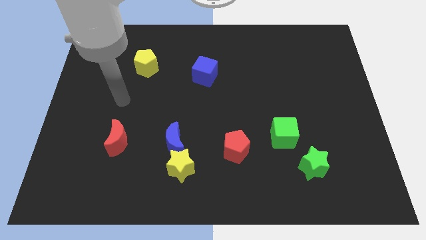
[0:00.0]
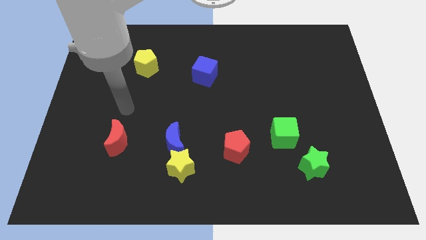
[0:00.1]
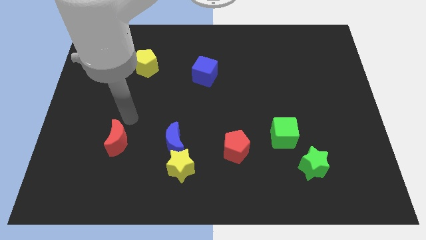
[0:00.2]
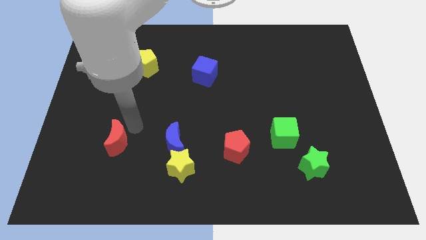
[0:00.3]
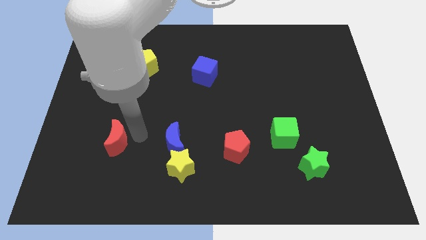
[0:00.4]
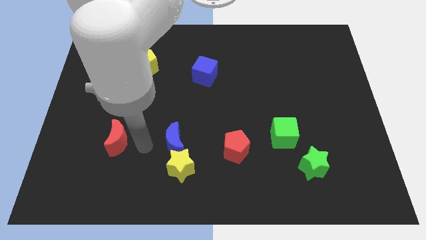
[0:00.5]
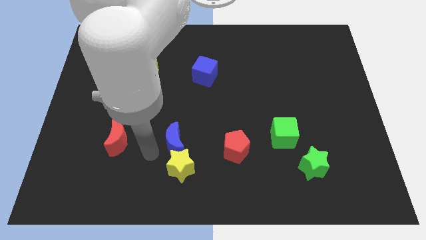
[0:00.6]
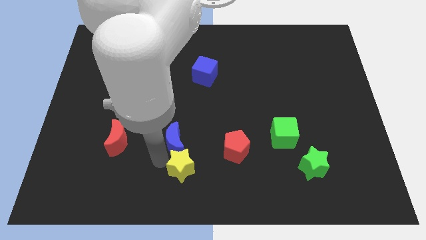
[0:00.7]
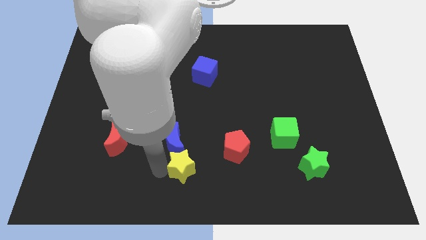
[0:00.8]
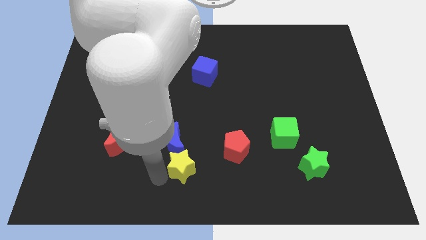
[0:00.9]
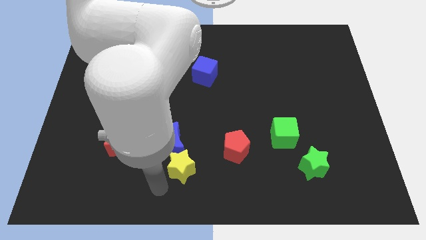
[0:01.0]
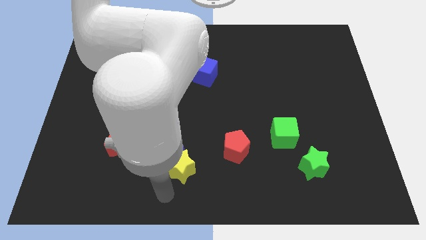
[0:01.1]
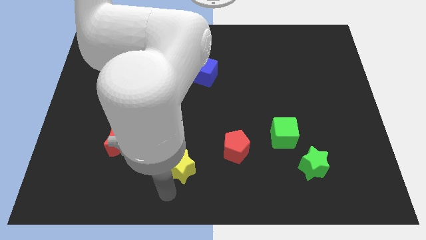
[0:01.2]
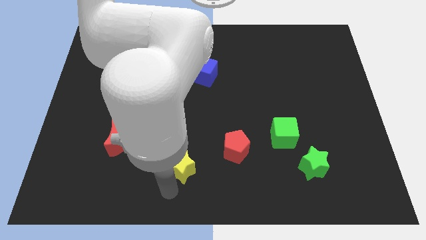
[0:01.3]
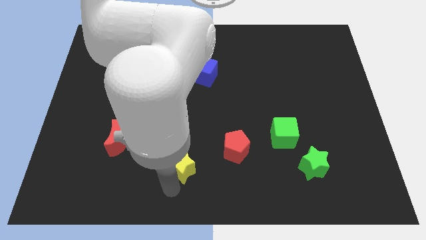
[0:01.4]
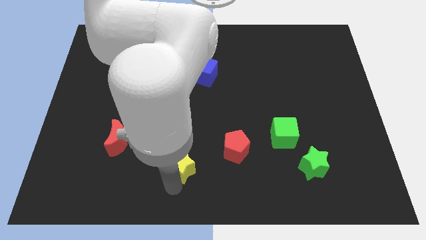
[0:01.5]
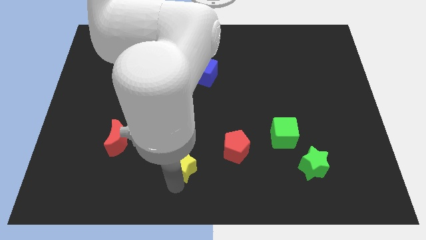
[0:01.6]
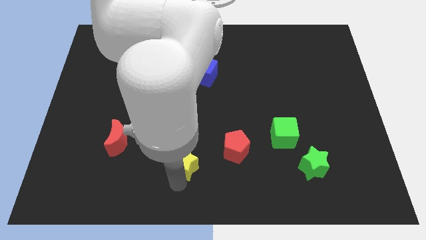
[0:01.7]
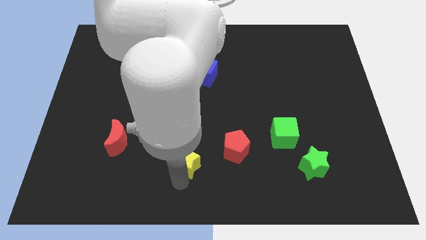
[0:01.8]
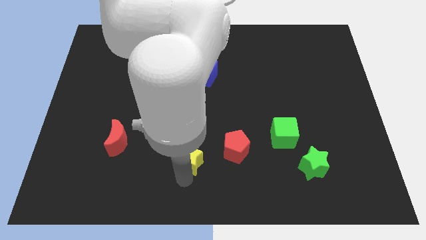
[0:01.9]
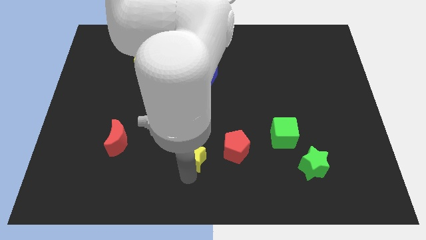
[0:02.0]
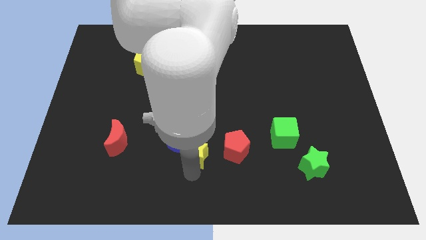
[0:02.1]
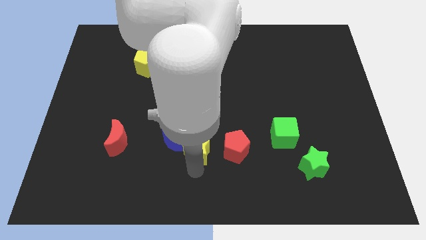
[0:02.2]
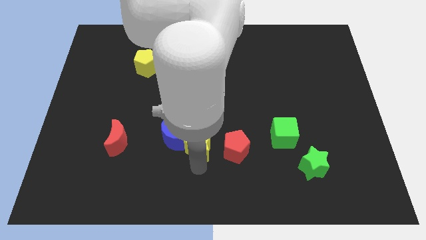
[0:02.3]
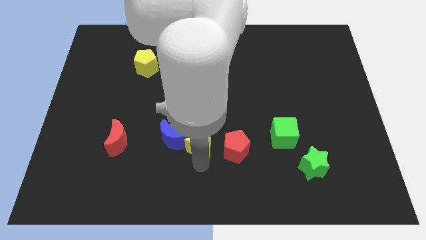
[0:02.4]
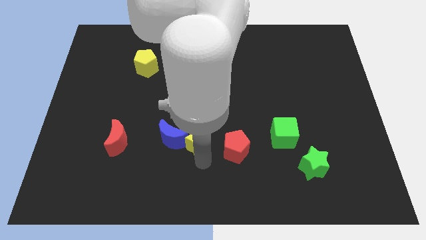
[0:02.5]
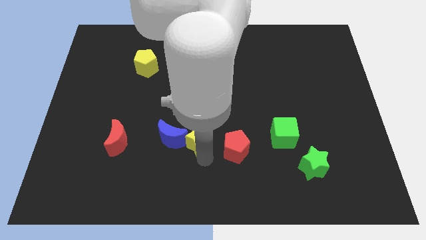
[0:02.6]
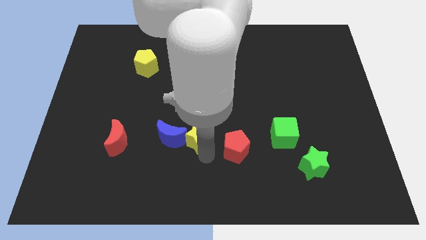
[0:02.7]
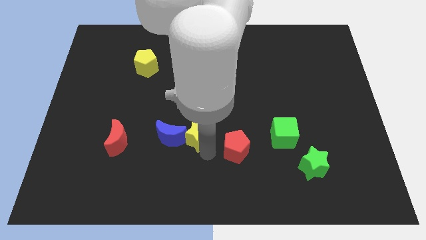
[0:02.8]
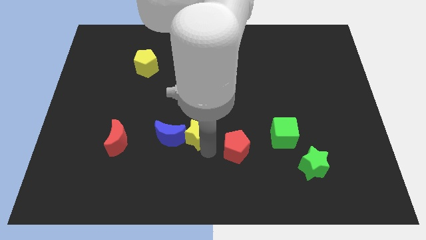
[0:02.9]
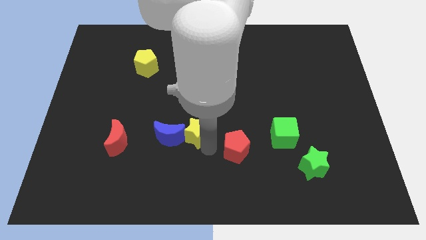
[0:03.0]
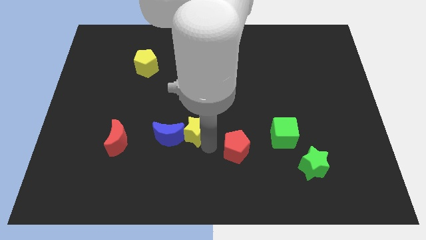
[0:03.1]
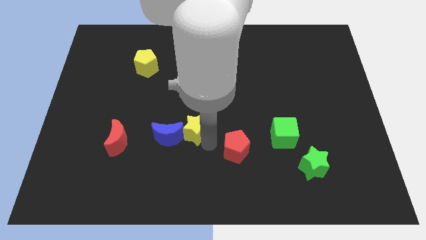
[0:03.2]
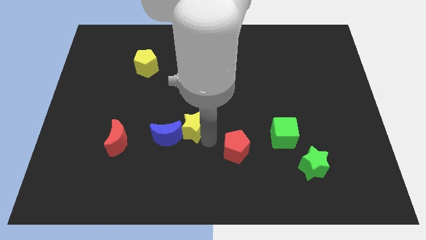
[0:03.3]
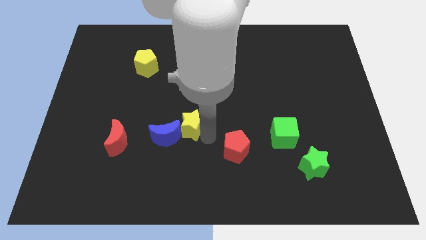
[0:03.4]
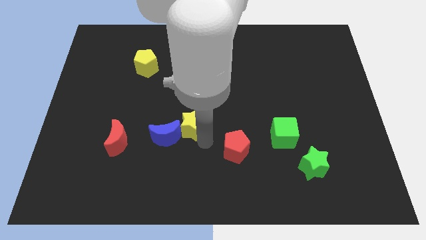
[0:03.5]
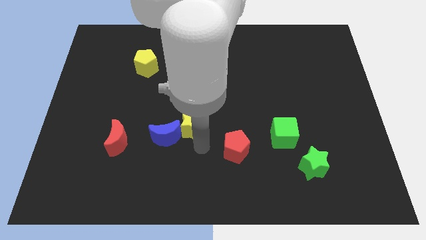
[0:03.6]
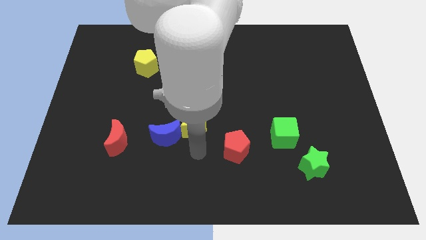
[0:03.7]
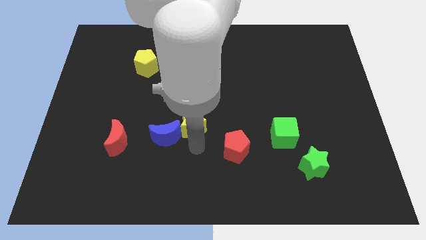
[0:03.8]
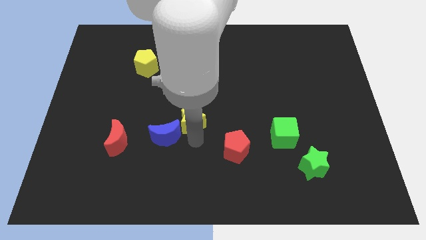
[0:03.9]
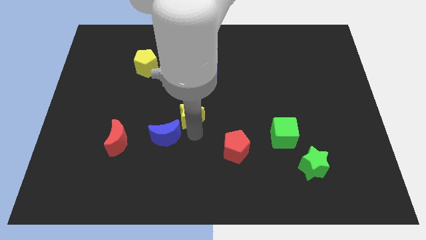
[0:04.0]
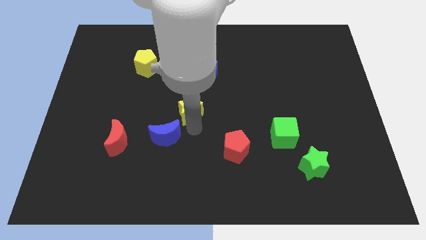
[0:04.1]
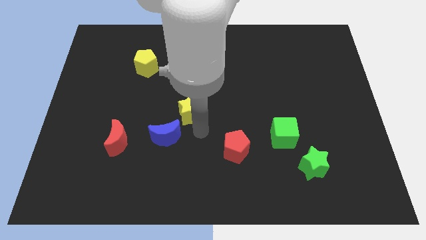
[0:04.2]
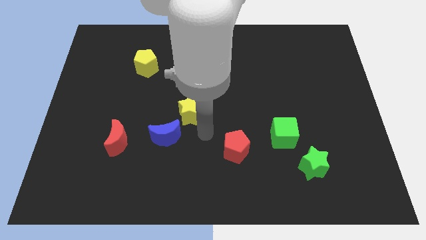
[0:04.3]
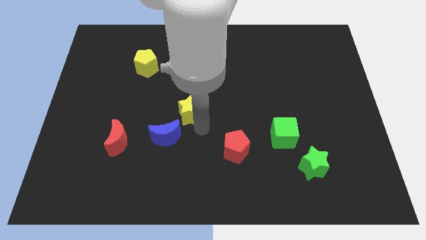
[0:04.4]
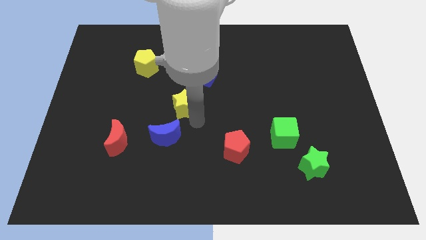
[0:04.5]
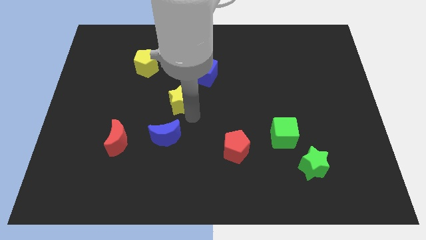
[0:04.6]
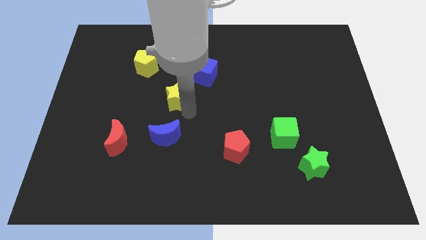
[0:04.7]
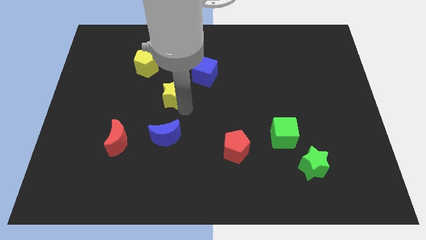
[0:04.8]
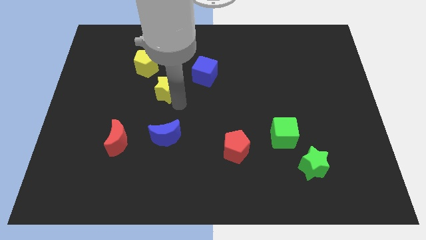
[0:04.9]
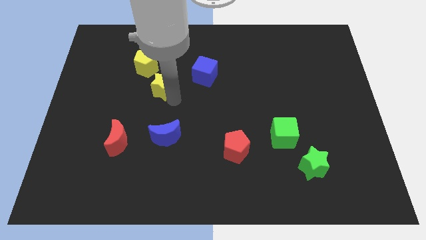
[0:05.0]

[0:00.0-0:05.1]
move the yellow star to the left of the blue cube

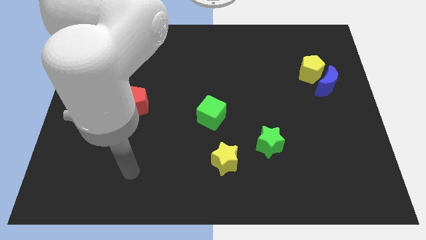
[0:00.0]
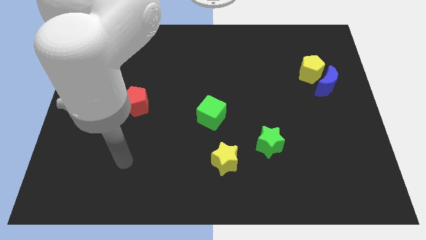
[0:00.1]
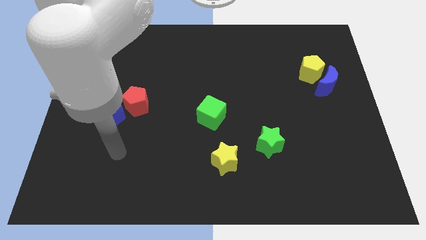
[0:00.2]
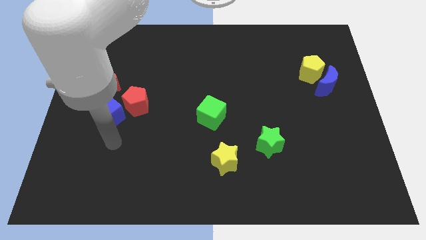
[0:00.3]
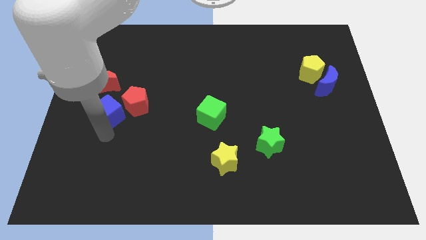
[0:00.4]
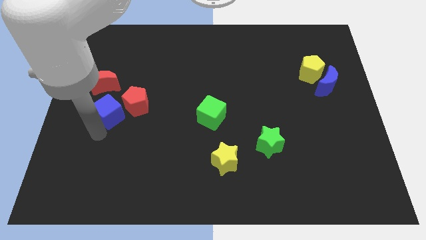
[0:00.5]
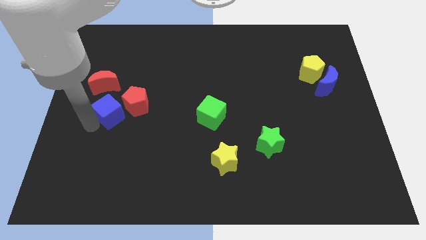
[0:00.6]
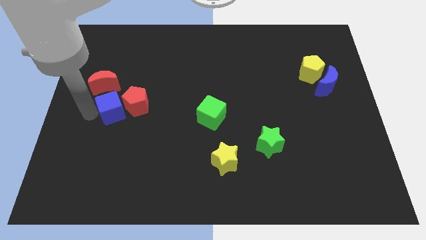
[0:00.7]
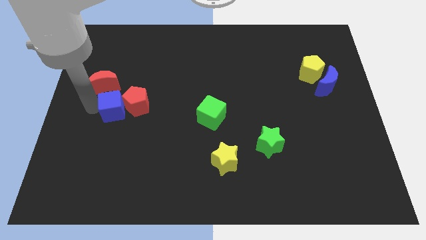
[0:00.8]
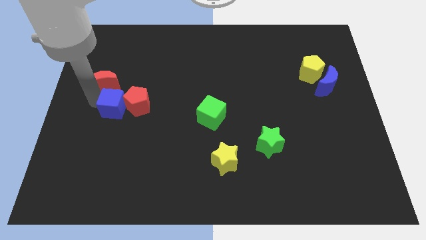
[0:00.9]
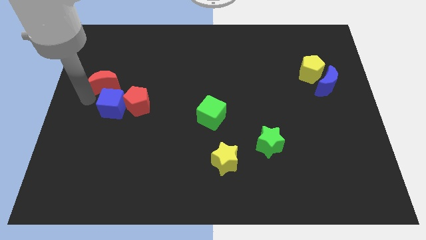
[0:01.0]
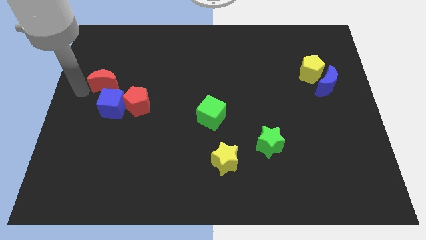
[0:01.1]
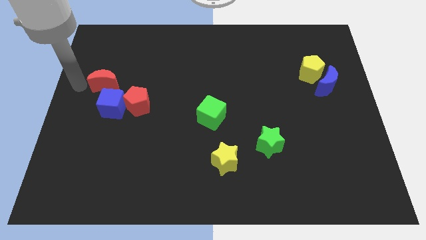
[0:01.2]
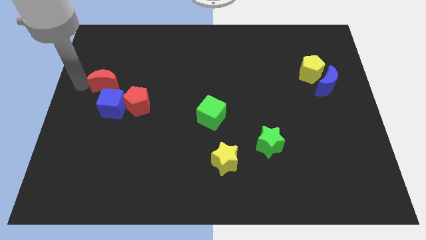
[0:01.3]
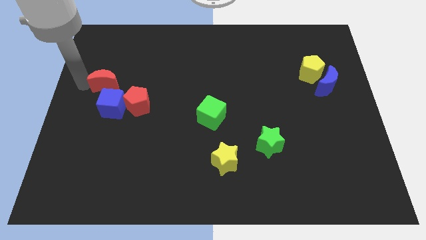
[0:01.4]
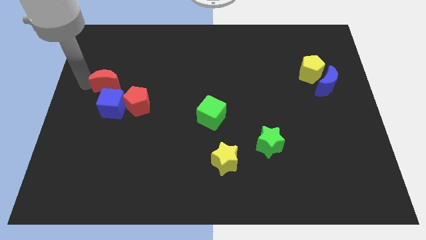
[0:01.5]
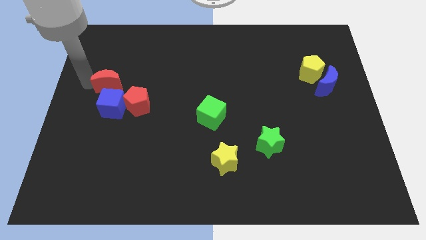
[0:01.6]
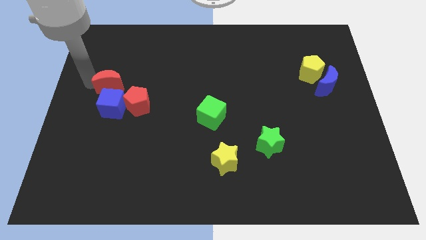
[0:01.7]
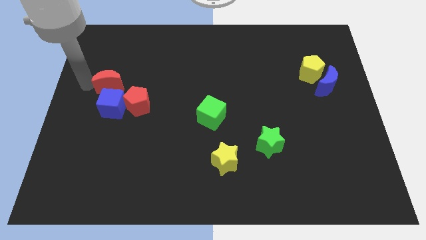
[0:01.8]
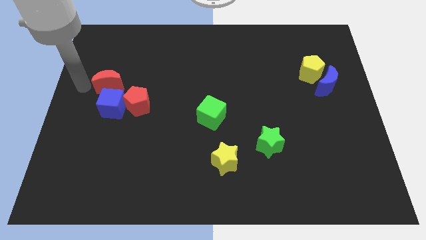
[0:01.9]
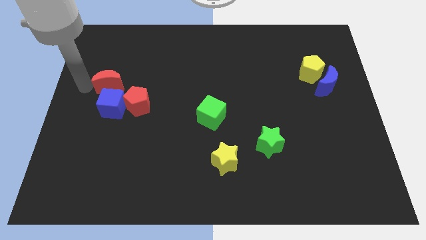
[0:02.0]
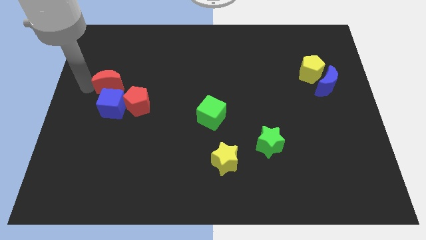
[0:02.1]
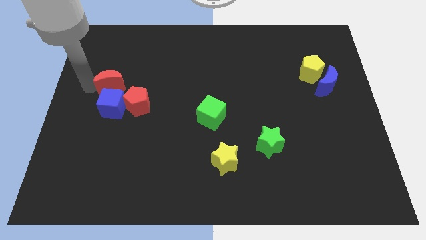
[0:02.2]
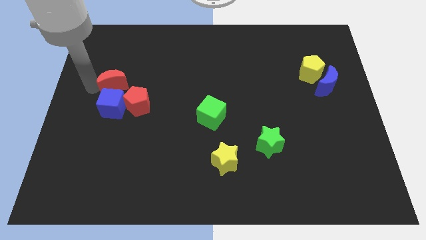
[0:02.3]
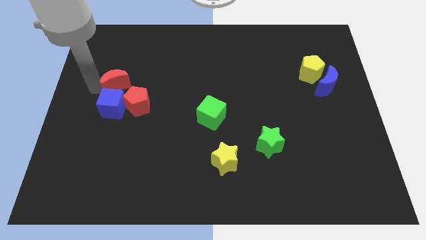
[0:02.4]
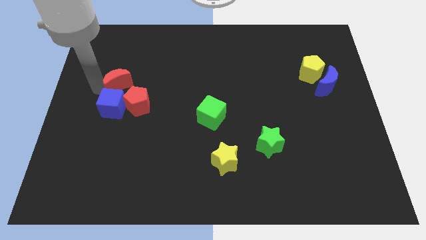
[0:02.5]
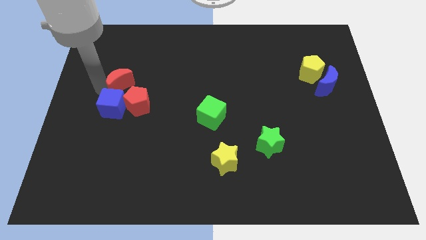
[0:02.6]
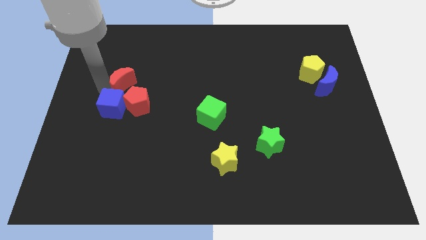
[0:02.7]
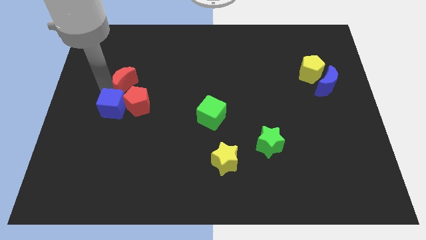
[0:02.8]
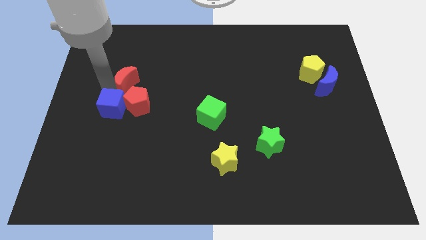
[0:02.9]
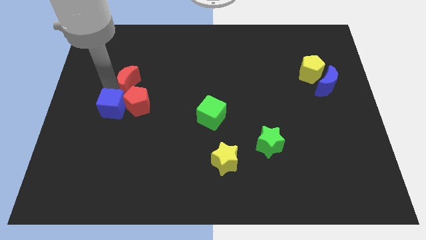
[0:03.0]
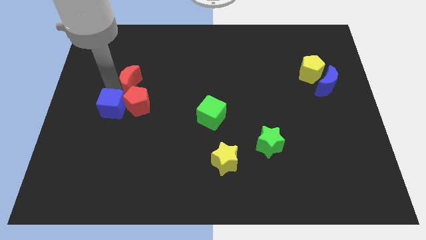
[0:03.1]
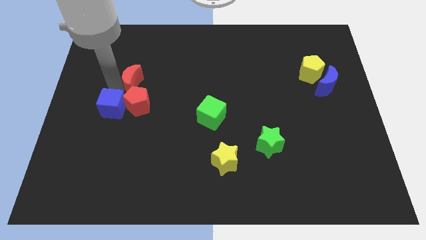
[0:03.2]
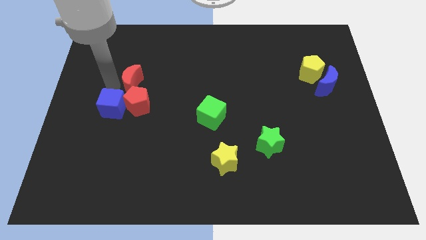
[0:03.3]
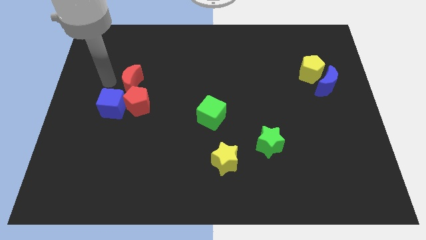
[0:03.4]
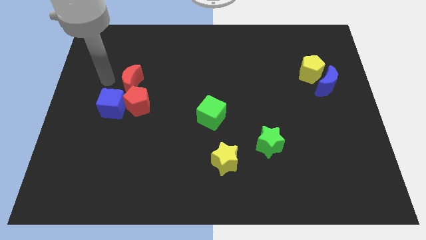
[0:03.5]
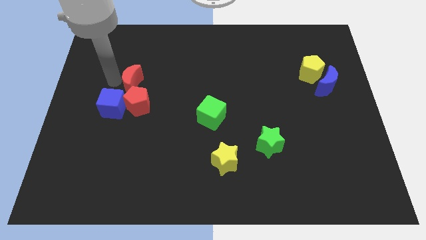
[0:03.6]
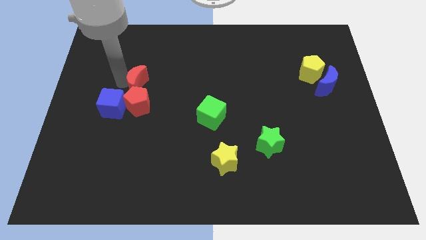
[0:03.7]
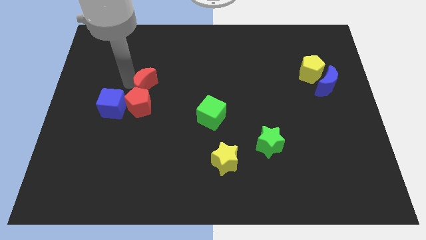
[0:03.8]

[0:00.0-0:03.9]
move the red moon to the top right side of the red pentagon
